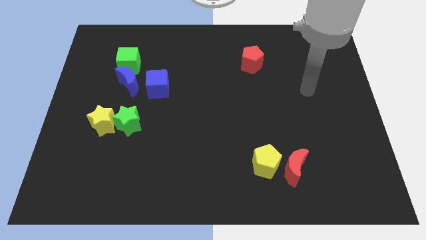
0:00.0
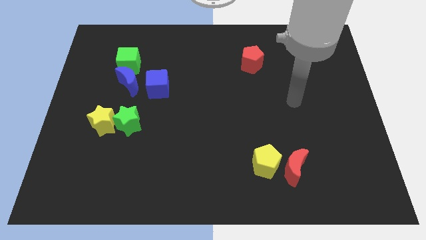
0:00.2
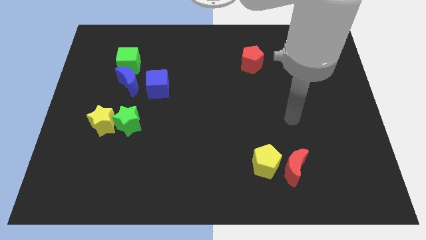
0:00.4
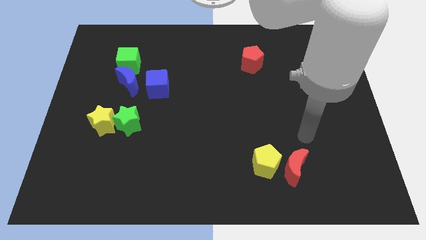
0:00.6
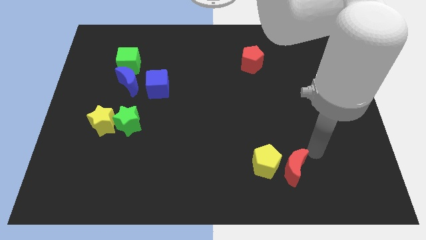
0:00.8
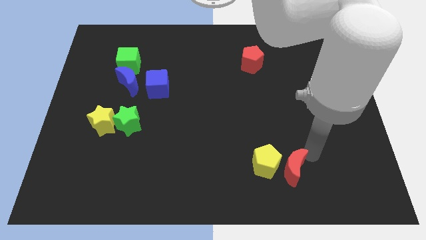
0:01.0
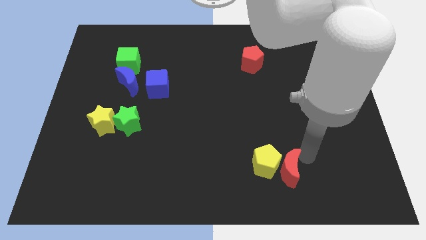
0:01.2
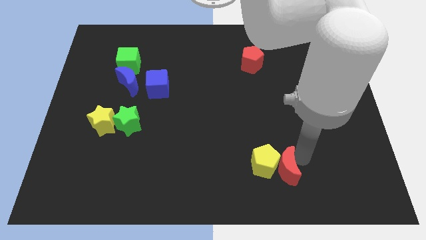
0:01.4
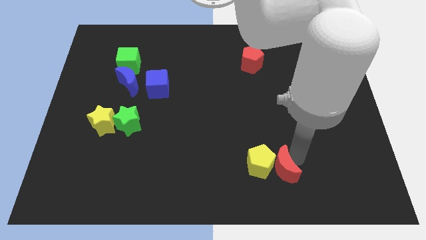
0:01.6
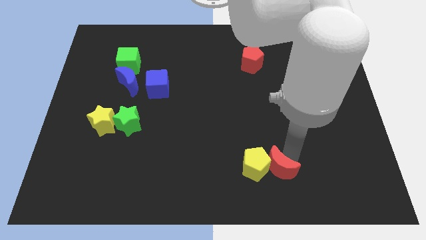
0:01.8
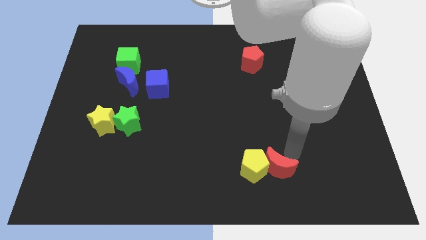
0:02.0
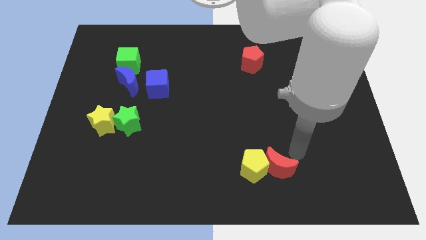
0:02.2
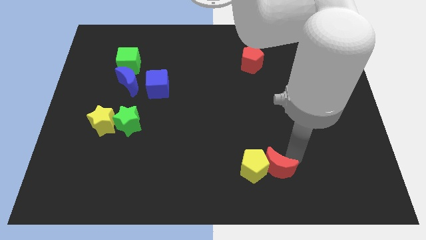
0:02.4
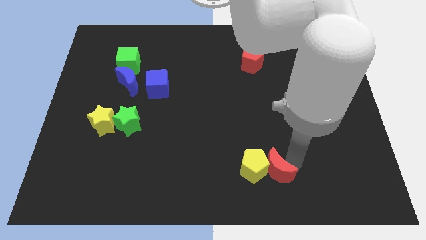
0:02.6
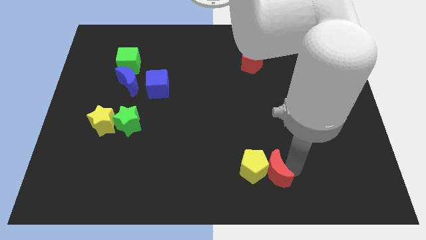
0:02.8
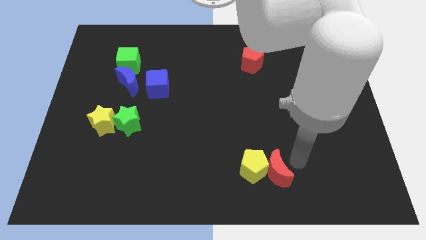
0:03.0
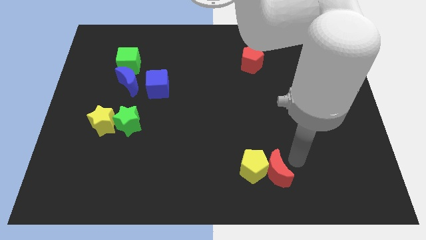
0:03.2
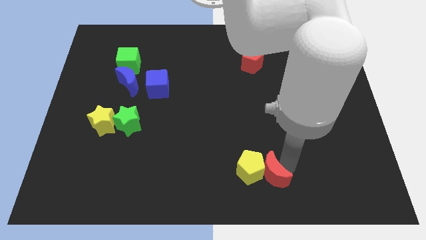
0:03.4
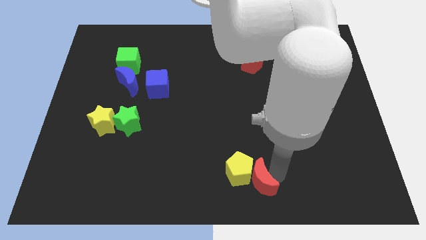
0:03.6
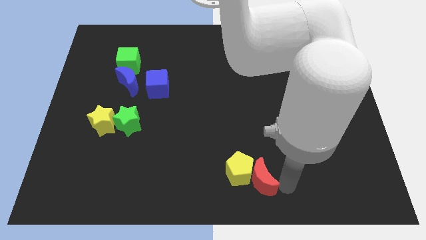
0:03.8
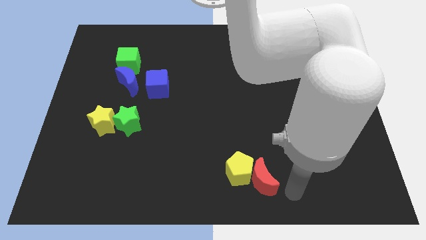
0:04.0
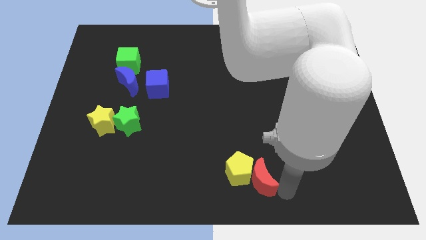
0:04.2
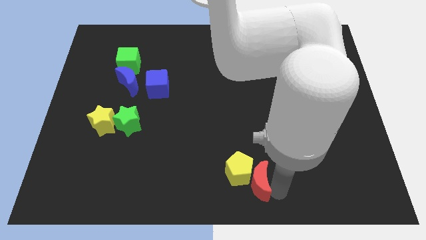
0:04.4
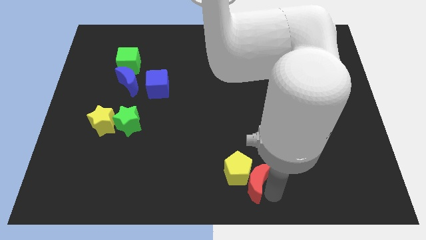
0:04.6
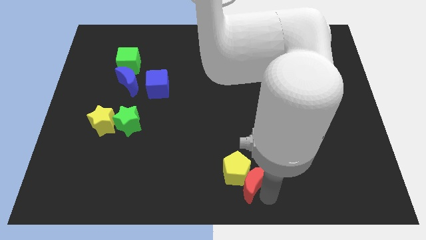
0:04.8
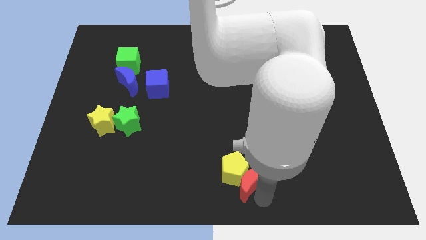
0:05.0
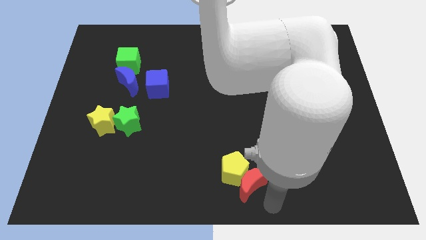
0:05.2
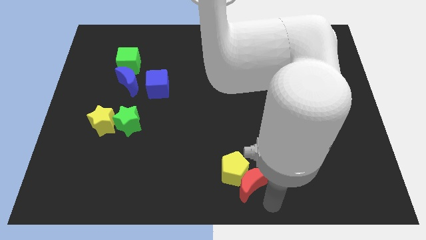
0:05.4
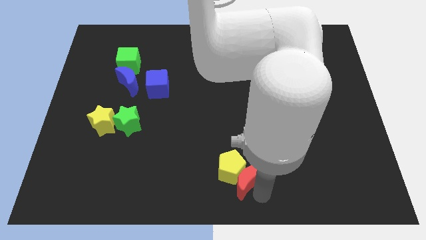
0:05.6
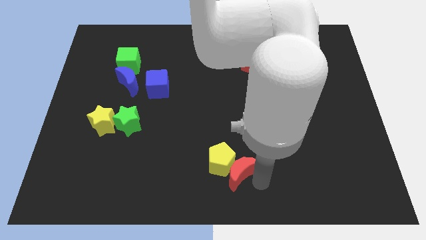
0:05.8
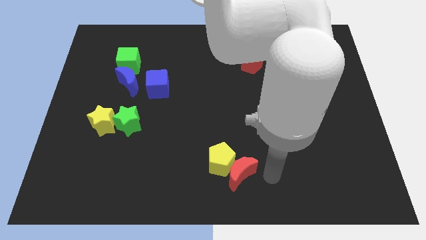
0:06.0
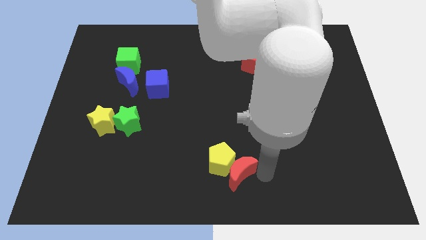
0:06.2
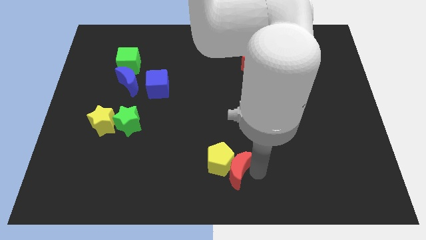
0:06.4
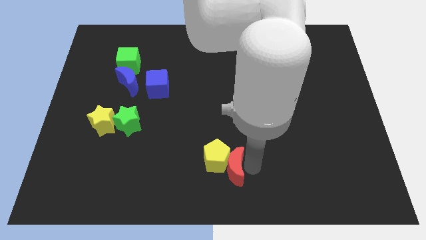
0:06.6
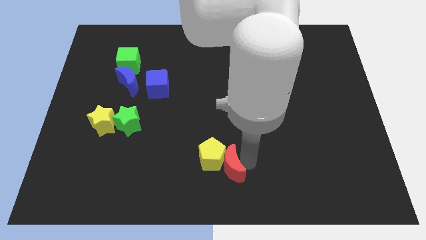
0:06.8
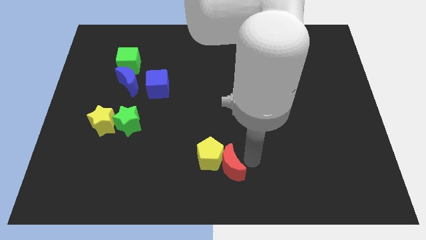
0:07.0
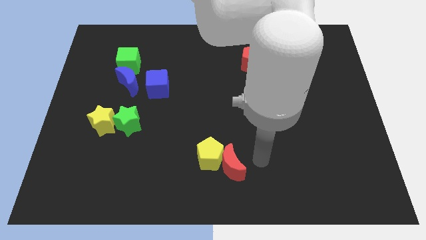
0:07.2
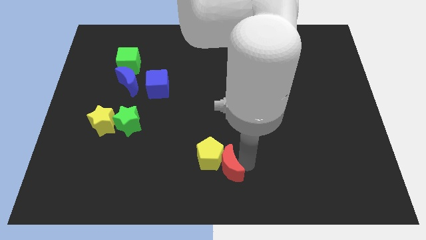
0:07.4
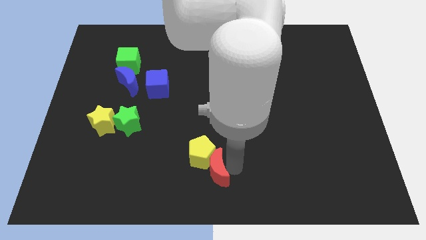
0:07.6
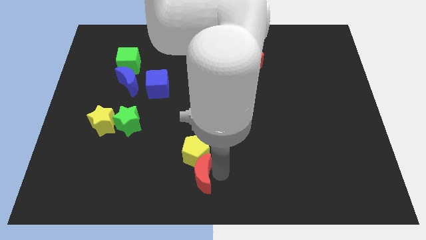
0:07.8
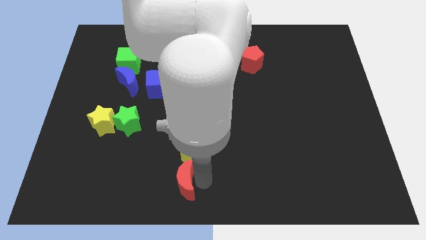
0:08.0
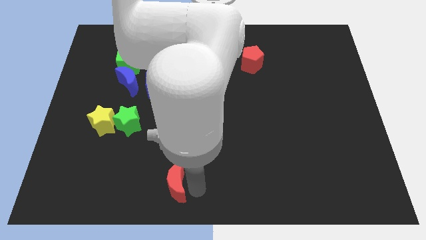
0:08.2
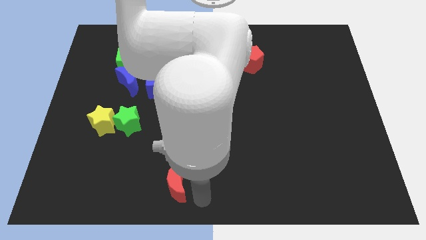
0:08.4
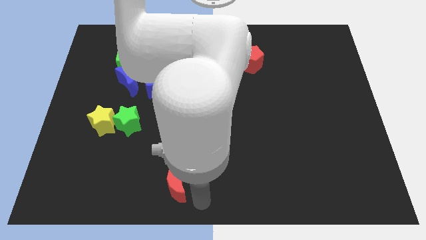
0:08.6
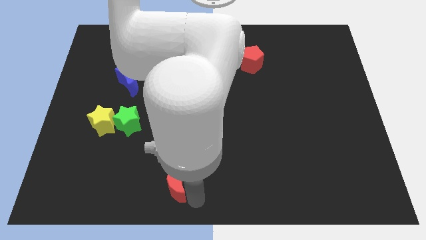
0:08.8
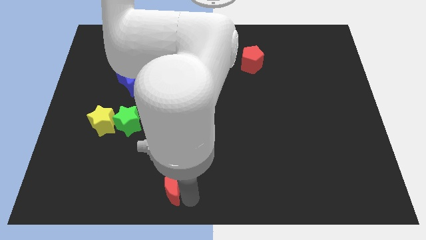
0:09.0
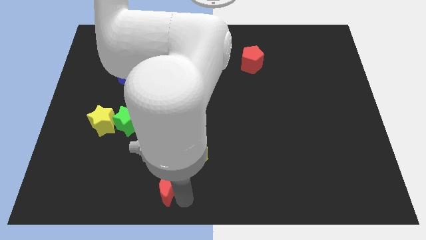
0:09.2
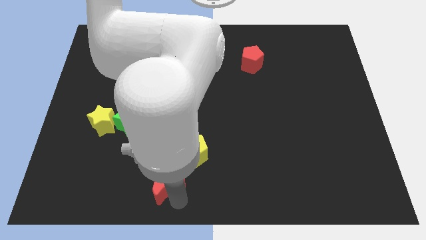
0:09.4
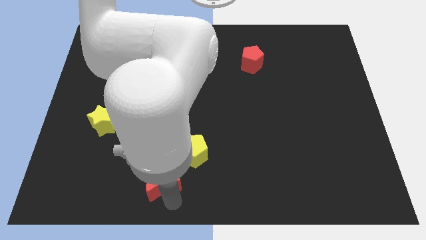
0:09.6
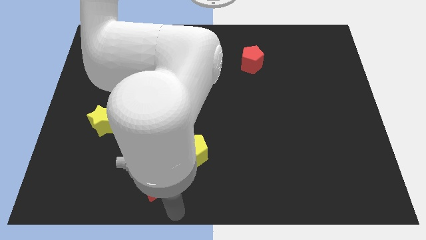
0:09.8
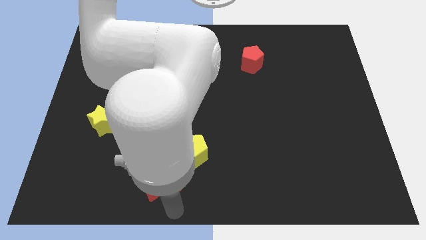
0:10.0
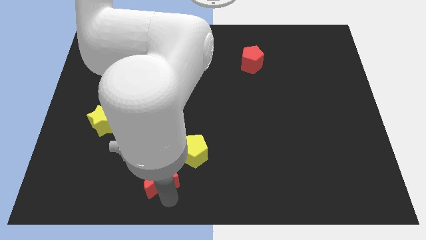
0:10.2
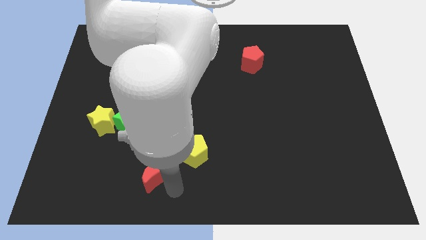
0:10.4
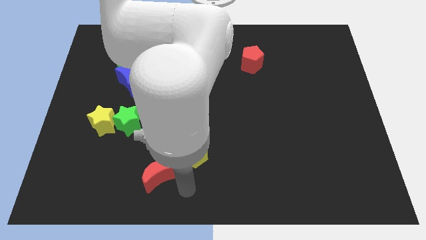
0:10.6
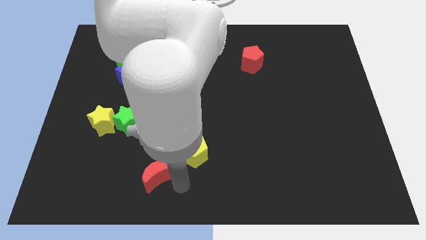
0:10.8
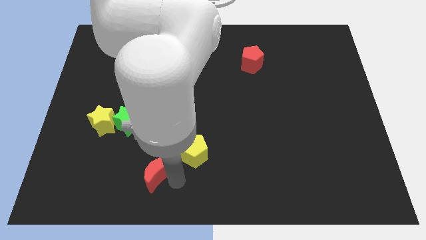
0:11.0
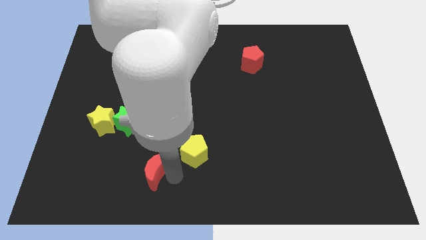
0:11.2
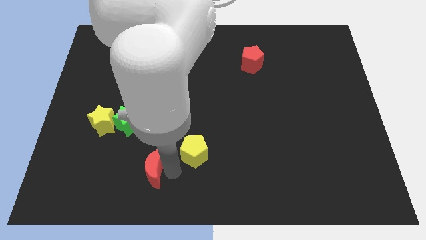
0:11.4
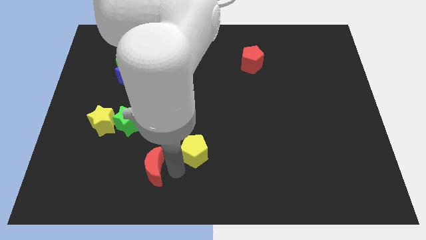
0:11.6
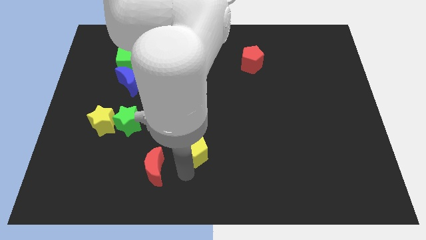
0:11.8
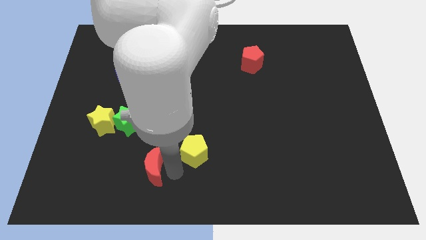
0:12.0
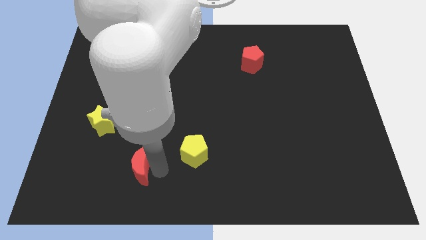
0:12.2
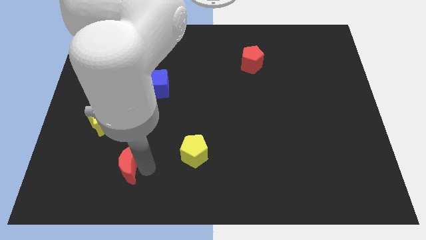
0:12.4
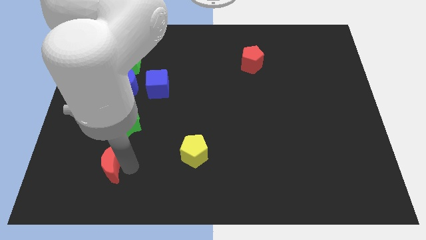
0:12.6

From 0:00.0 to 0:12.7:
put the red moon to the bottom side of the yellow star
